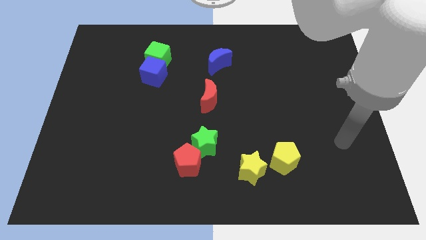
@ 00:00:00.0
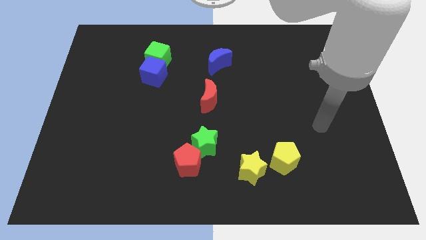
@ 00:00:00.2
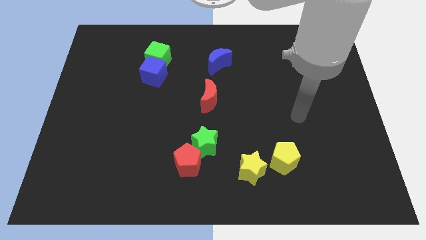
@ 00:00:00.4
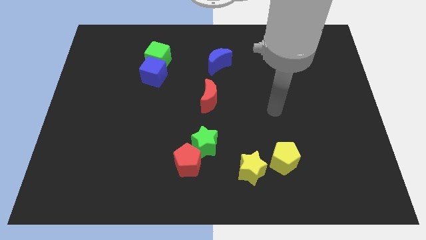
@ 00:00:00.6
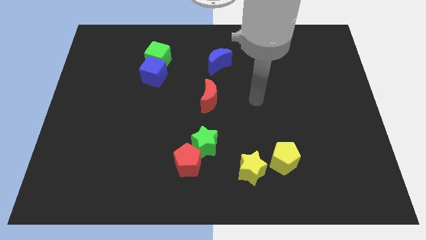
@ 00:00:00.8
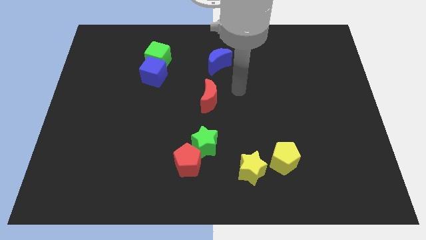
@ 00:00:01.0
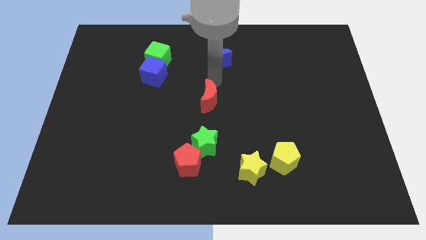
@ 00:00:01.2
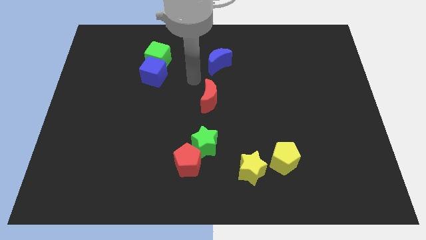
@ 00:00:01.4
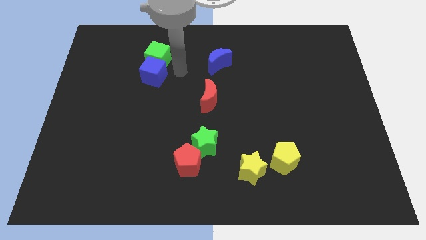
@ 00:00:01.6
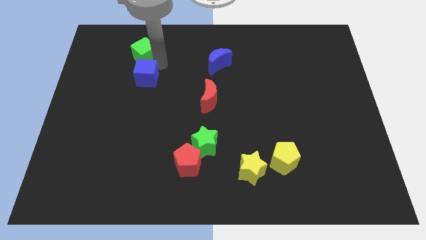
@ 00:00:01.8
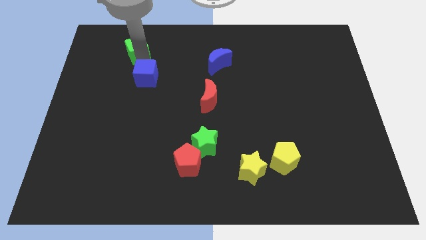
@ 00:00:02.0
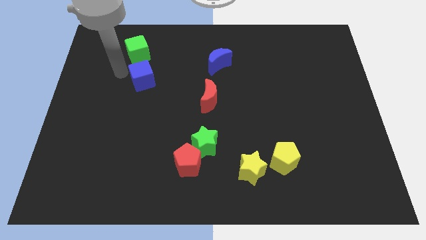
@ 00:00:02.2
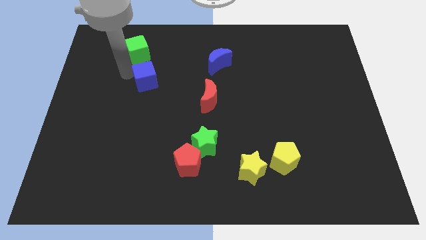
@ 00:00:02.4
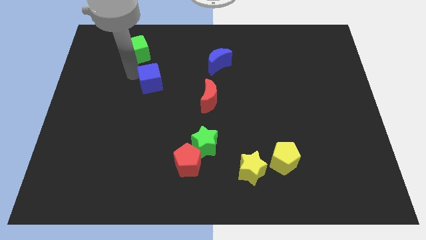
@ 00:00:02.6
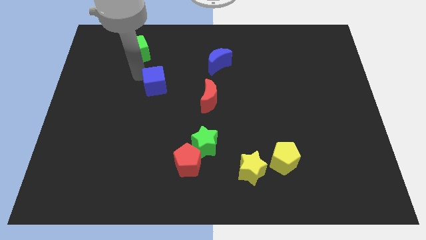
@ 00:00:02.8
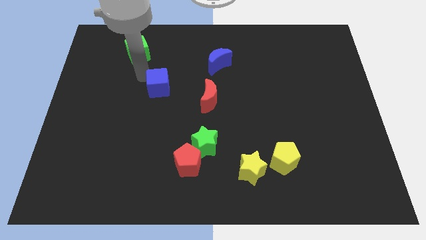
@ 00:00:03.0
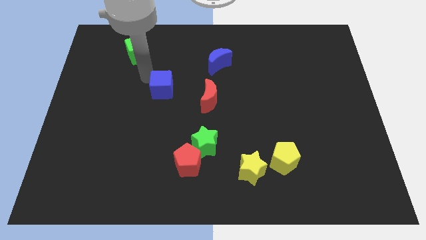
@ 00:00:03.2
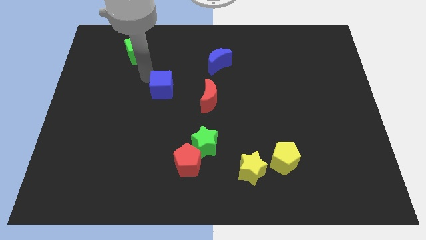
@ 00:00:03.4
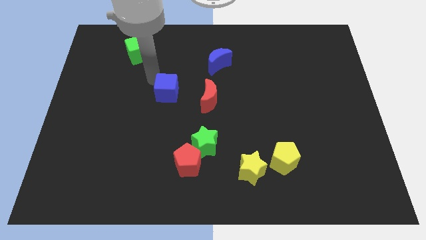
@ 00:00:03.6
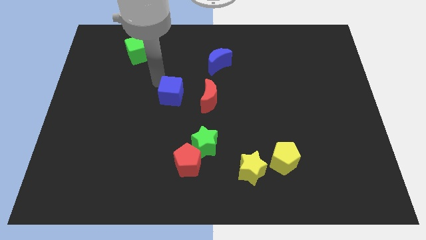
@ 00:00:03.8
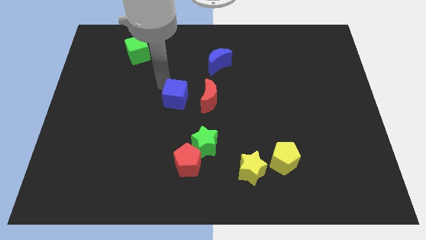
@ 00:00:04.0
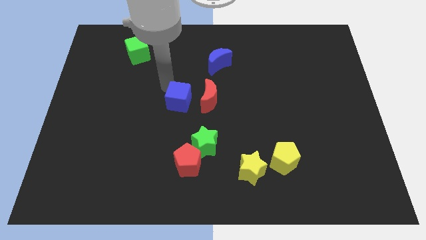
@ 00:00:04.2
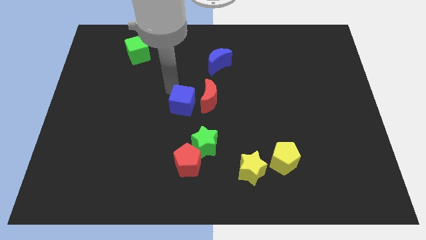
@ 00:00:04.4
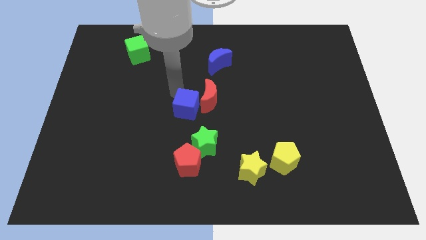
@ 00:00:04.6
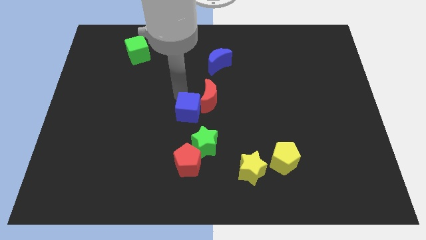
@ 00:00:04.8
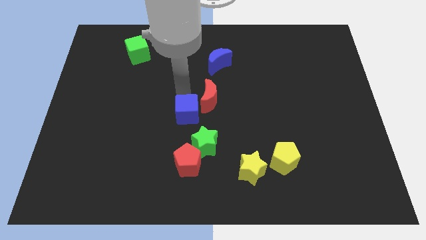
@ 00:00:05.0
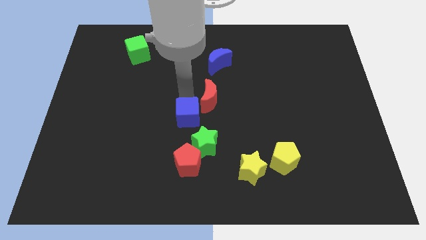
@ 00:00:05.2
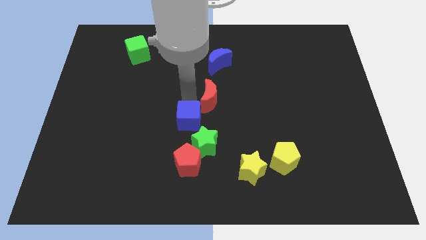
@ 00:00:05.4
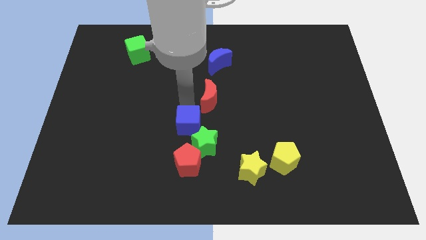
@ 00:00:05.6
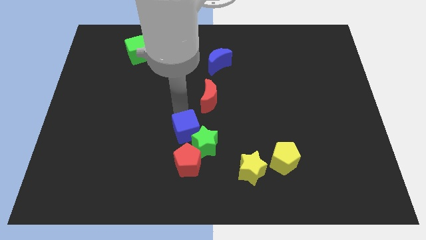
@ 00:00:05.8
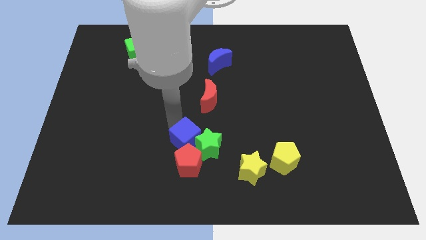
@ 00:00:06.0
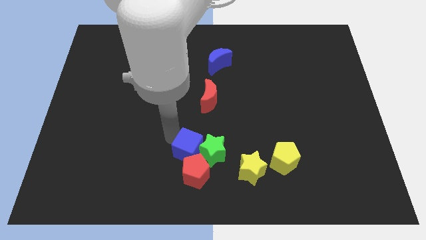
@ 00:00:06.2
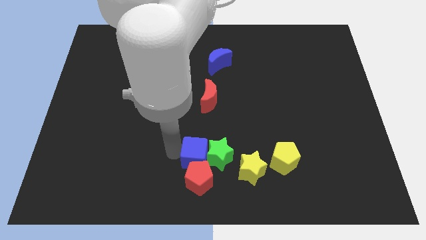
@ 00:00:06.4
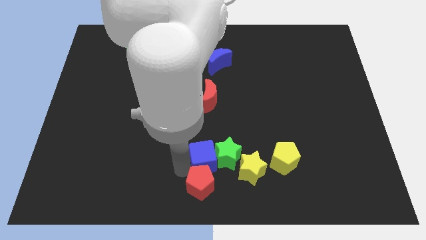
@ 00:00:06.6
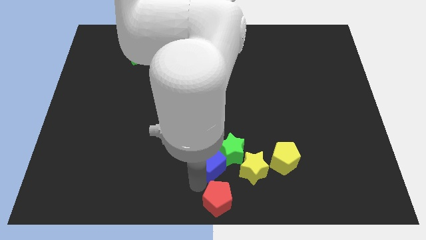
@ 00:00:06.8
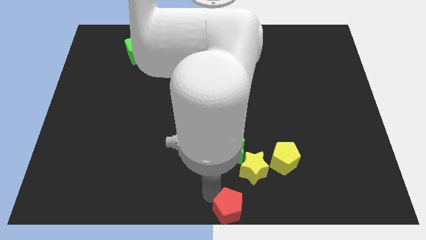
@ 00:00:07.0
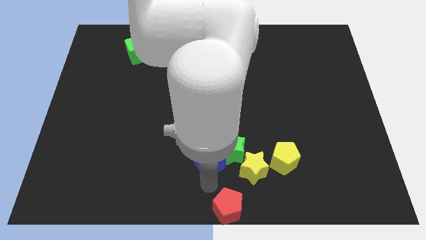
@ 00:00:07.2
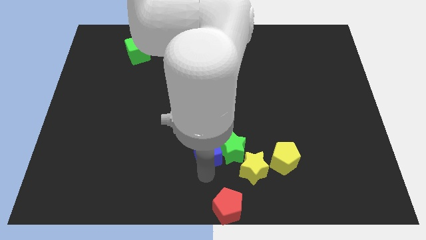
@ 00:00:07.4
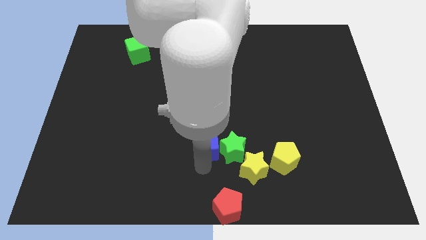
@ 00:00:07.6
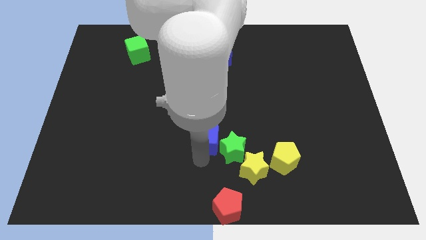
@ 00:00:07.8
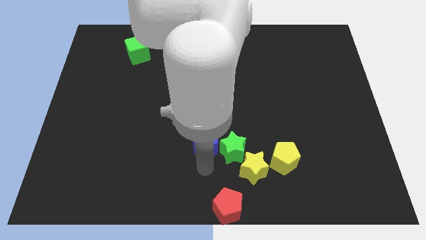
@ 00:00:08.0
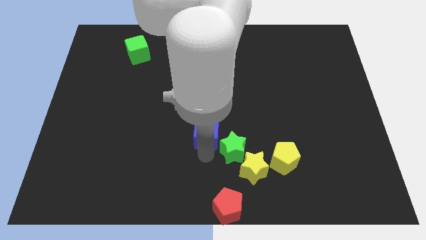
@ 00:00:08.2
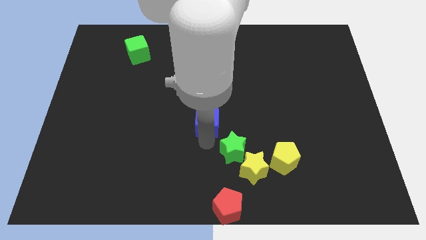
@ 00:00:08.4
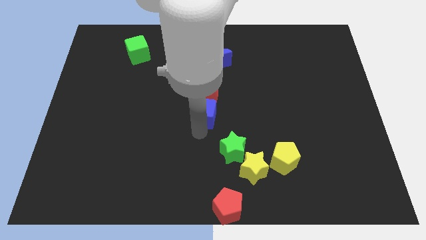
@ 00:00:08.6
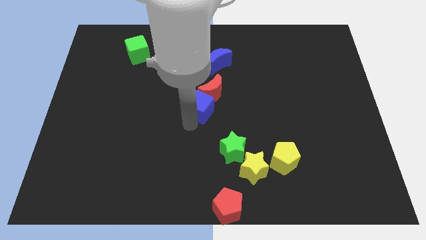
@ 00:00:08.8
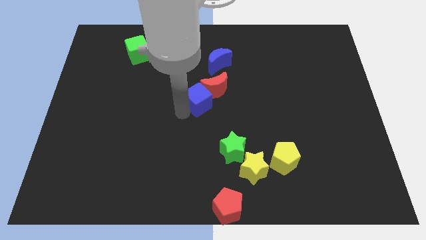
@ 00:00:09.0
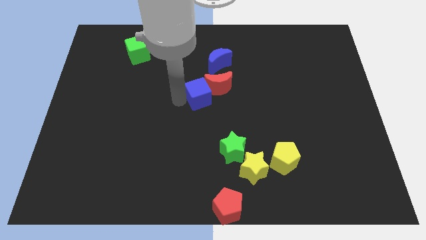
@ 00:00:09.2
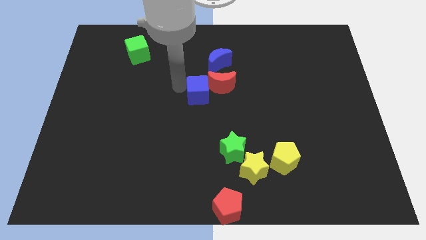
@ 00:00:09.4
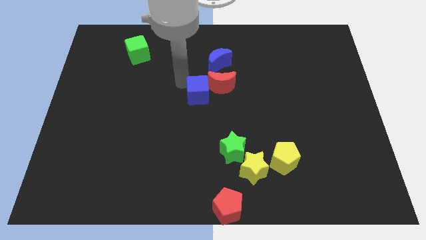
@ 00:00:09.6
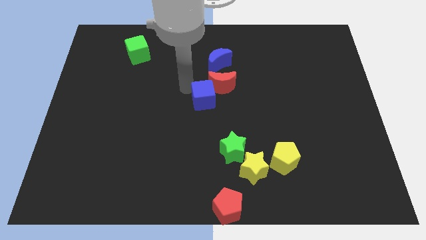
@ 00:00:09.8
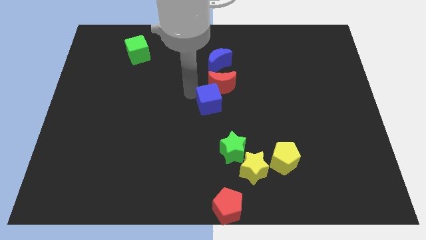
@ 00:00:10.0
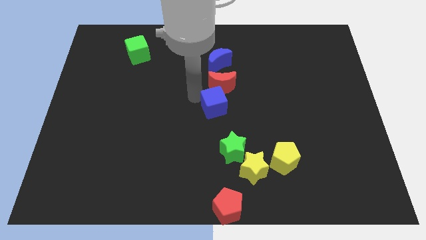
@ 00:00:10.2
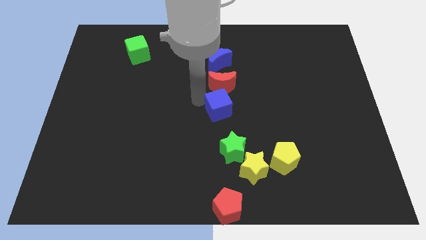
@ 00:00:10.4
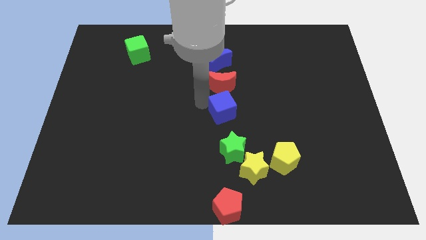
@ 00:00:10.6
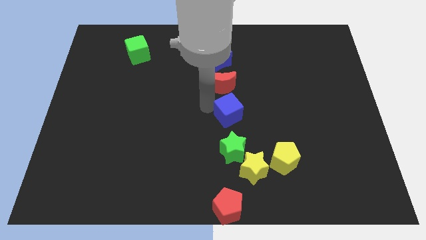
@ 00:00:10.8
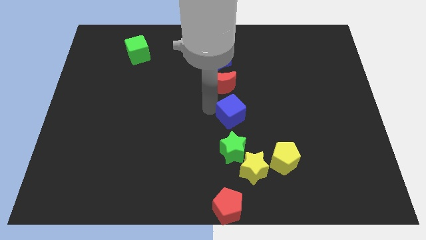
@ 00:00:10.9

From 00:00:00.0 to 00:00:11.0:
move the blue cube above the yellow star
